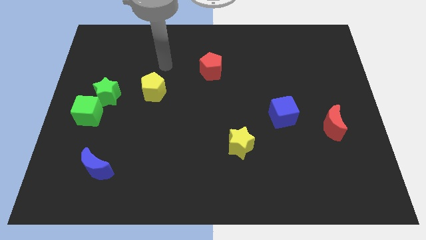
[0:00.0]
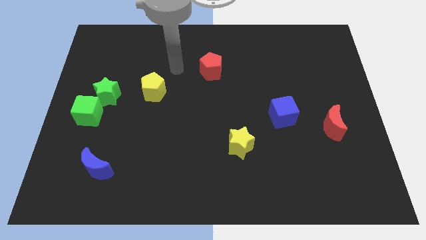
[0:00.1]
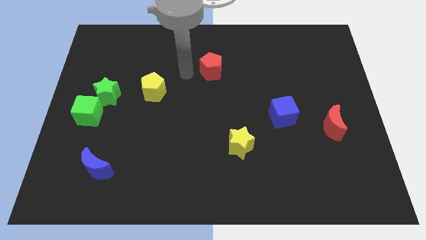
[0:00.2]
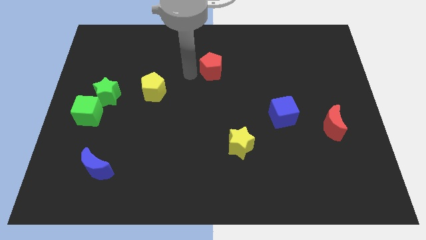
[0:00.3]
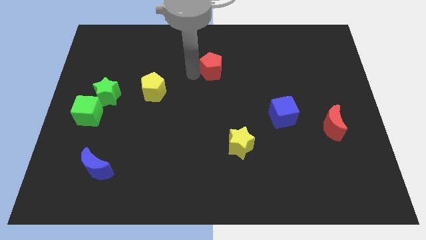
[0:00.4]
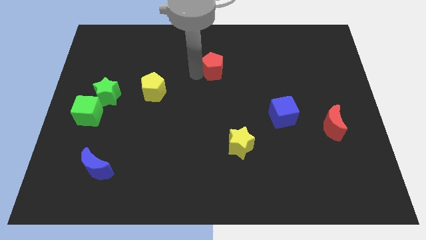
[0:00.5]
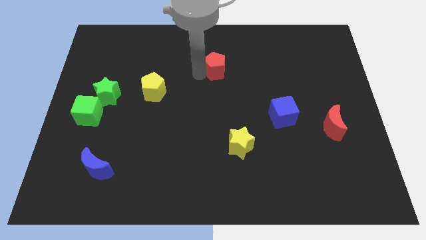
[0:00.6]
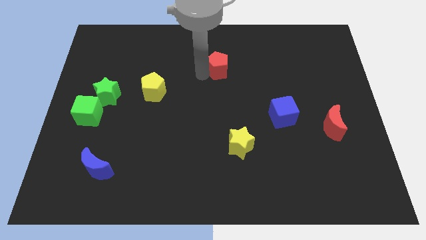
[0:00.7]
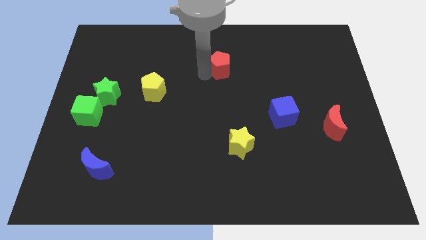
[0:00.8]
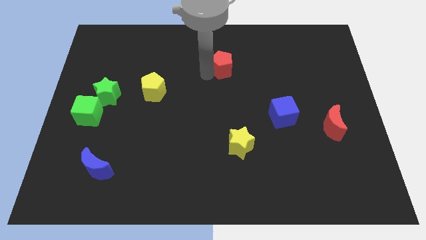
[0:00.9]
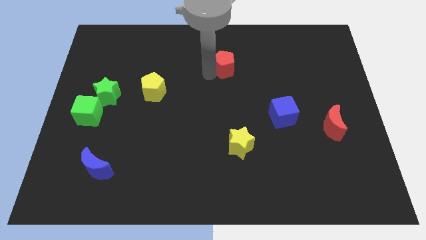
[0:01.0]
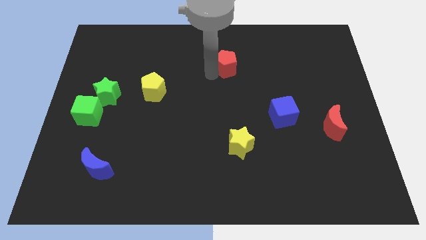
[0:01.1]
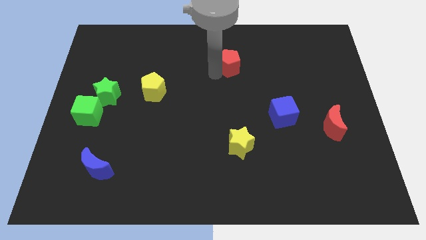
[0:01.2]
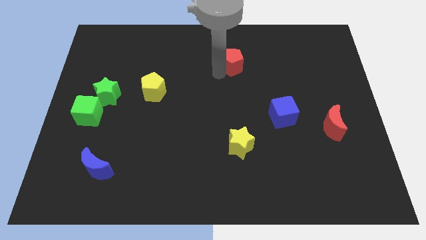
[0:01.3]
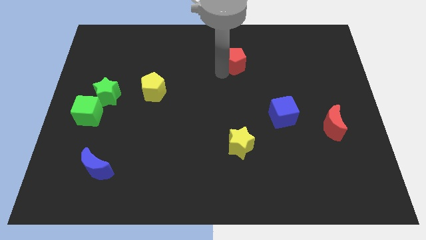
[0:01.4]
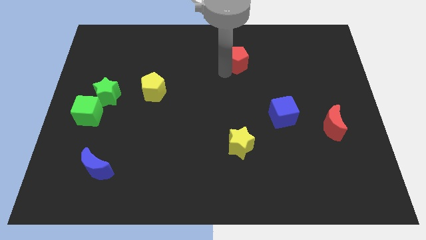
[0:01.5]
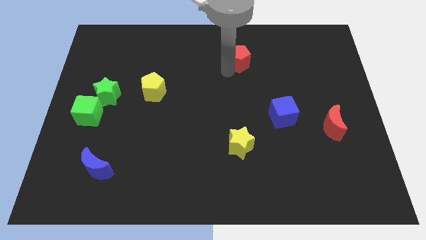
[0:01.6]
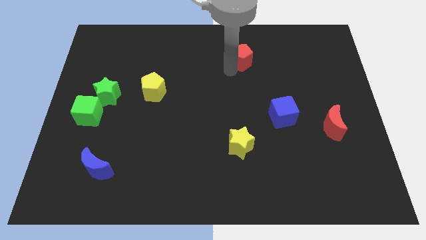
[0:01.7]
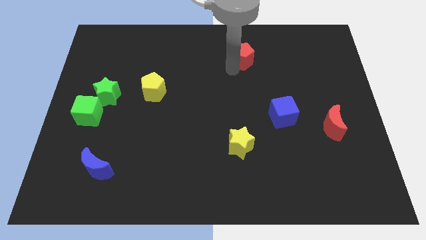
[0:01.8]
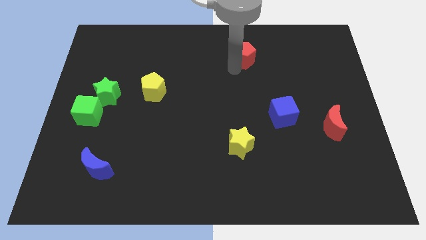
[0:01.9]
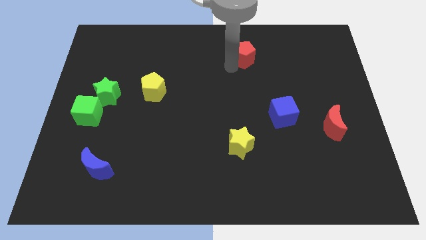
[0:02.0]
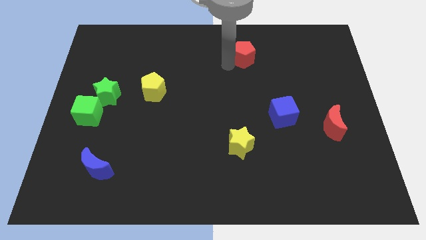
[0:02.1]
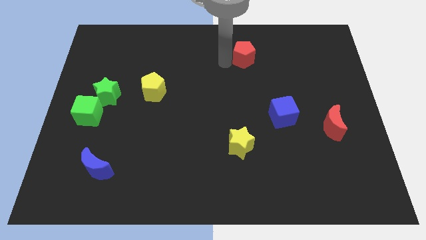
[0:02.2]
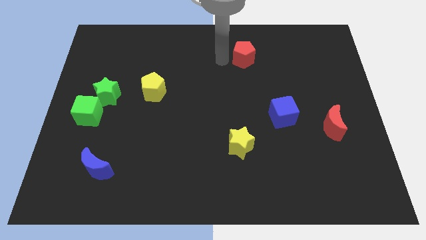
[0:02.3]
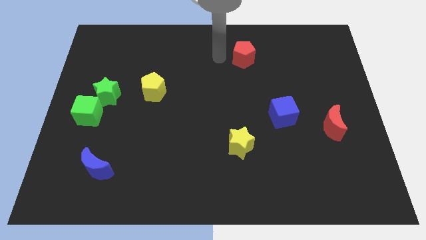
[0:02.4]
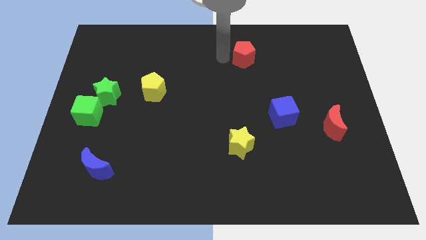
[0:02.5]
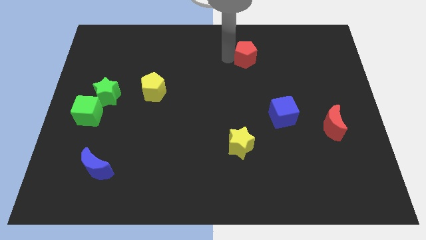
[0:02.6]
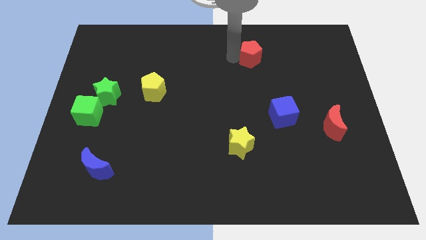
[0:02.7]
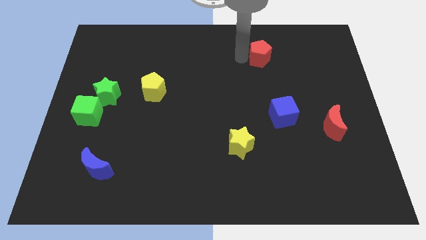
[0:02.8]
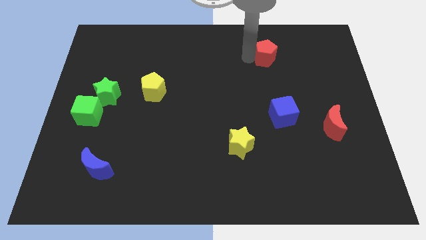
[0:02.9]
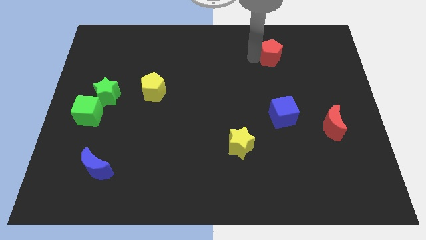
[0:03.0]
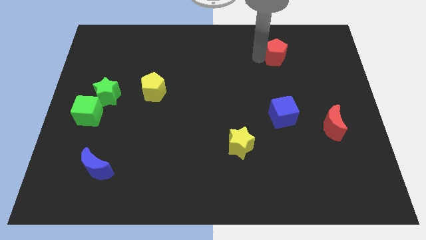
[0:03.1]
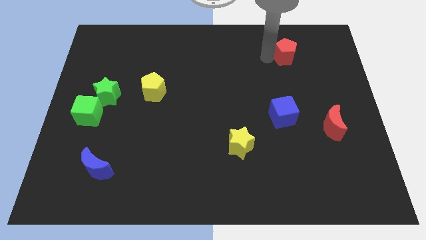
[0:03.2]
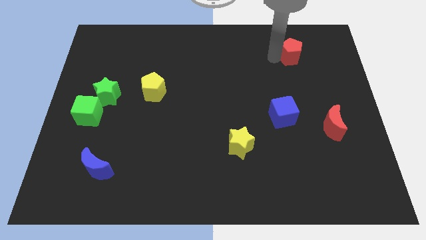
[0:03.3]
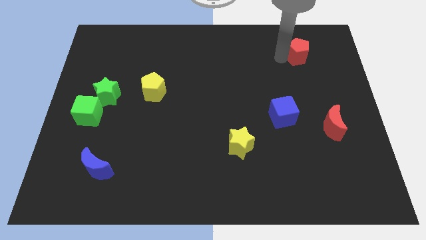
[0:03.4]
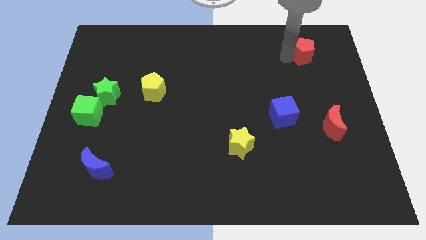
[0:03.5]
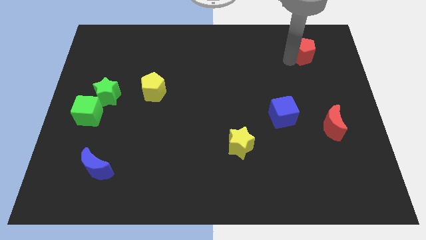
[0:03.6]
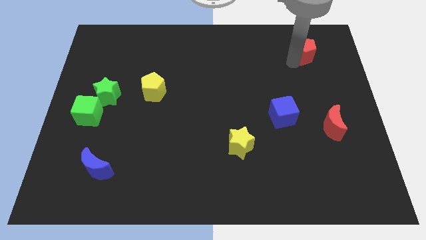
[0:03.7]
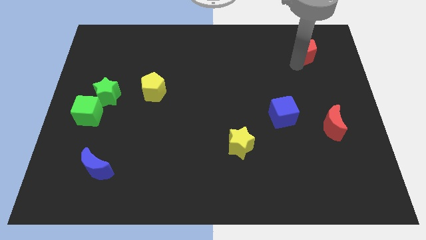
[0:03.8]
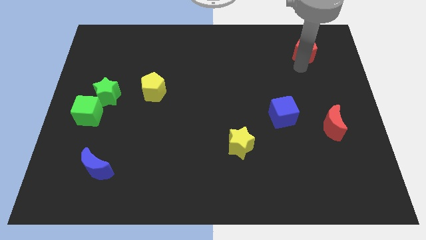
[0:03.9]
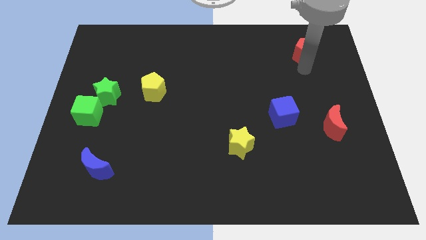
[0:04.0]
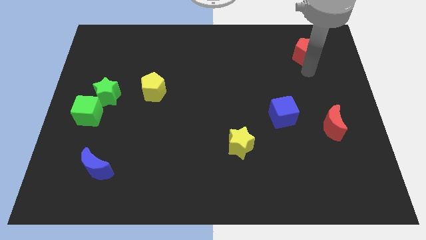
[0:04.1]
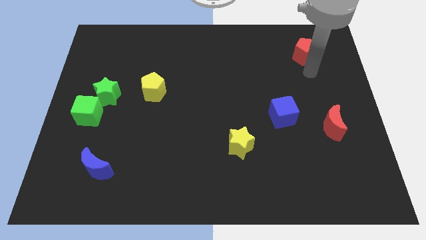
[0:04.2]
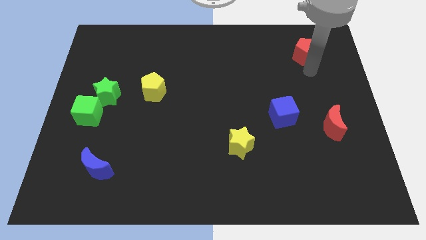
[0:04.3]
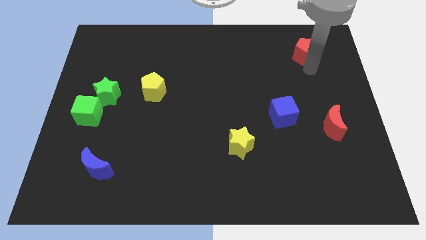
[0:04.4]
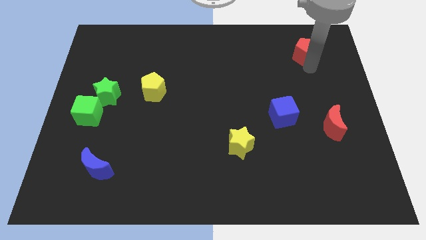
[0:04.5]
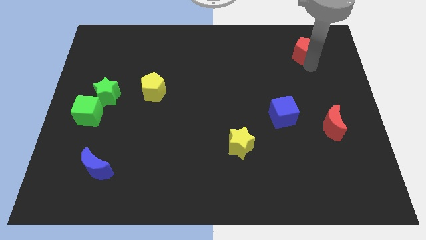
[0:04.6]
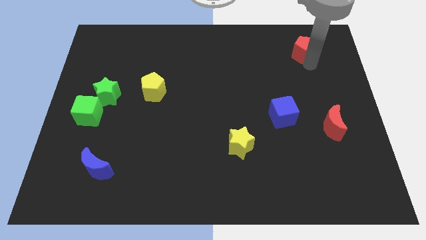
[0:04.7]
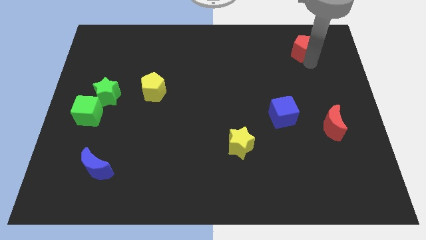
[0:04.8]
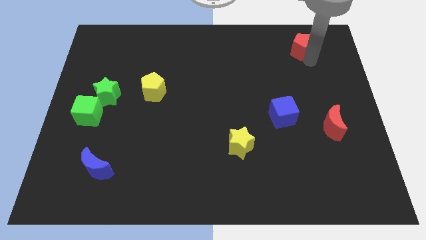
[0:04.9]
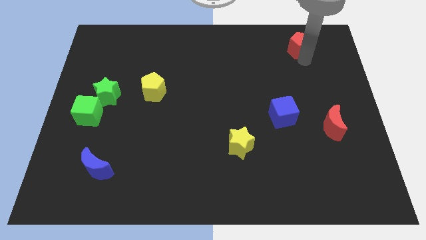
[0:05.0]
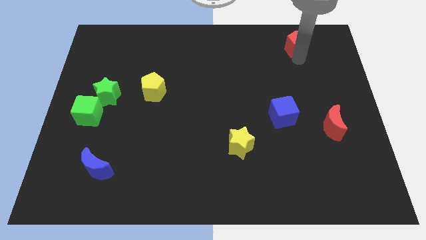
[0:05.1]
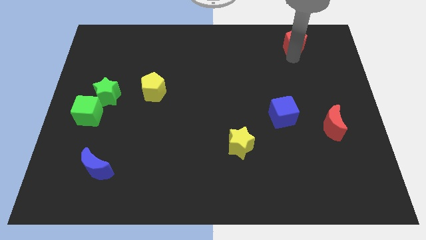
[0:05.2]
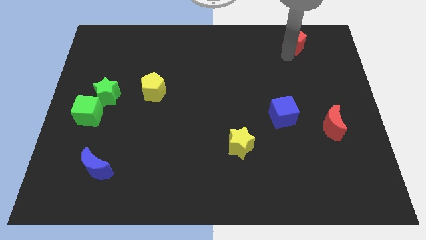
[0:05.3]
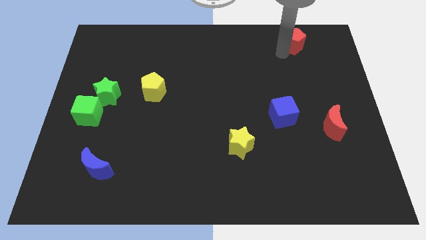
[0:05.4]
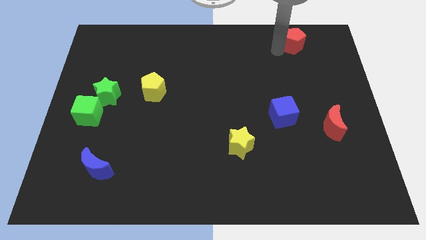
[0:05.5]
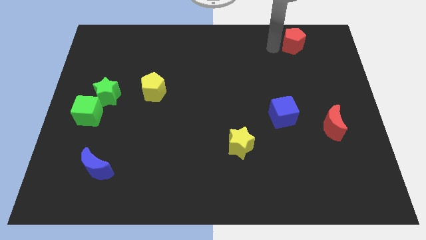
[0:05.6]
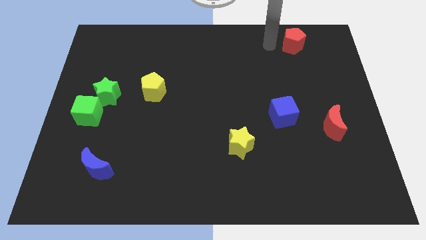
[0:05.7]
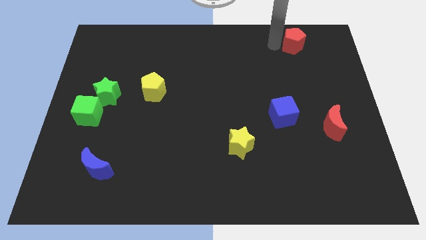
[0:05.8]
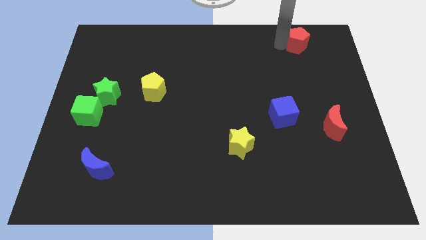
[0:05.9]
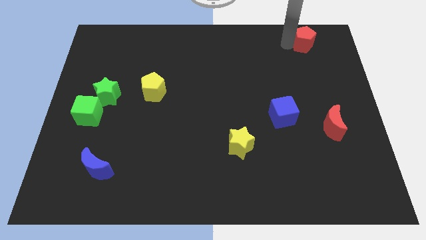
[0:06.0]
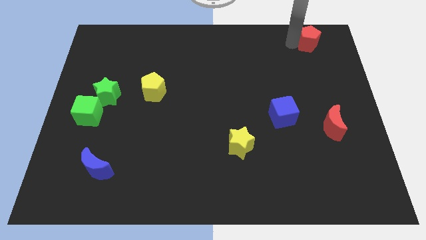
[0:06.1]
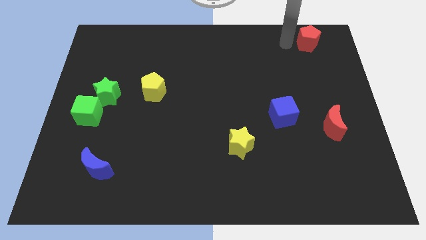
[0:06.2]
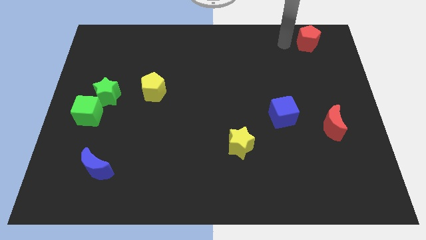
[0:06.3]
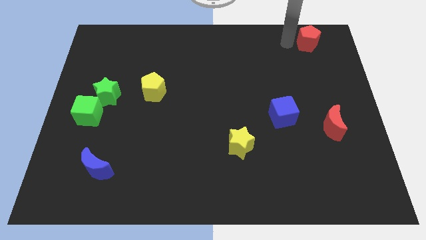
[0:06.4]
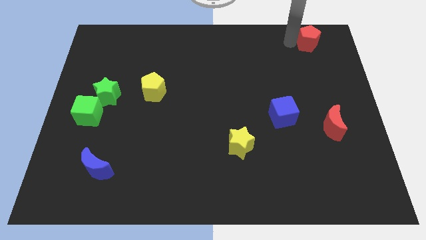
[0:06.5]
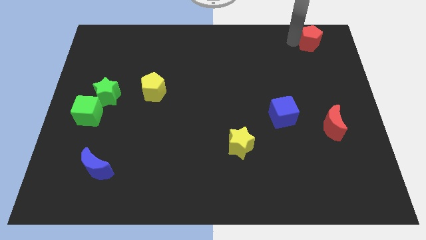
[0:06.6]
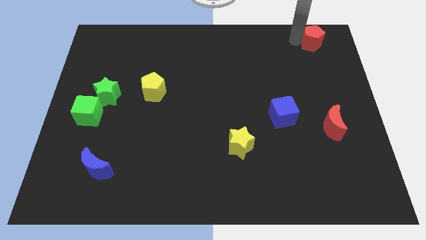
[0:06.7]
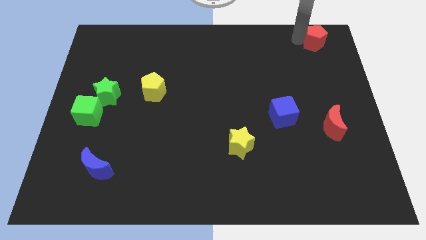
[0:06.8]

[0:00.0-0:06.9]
put the red pentagon to the top right

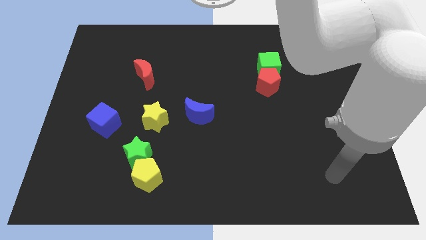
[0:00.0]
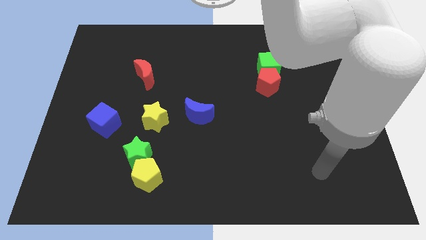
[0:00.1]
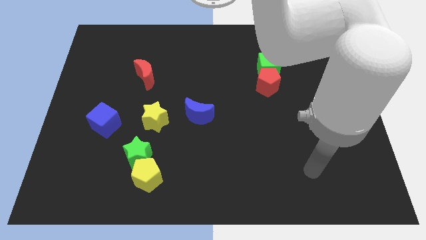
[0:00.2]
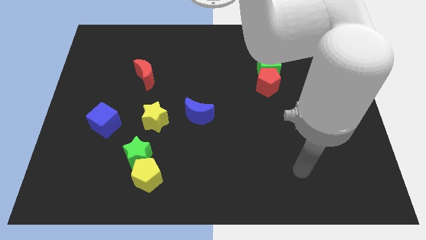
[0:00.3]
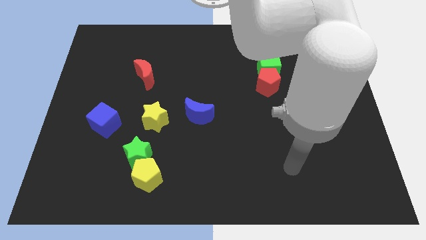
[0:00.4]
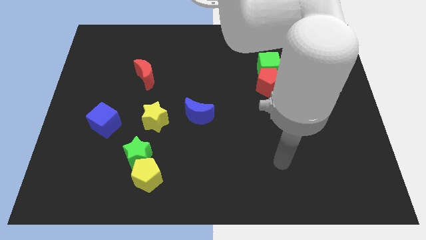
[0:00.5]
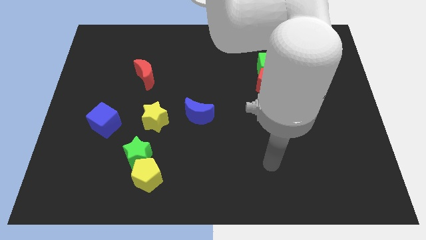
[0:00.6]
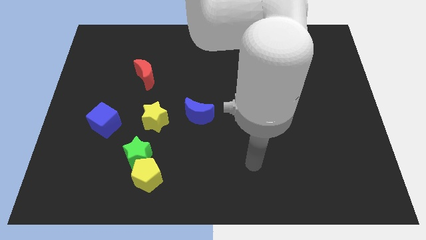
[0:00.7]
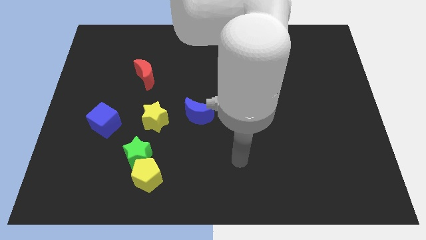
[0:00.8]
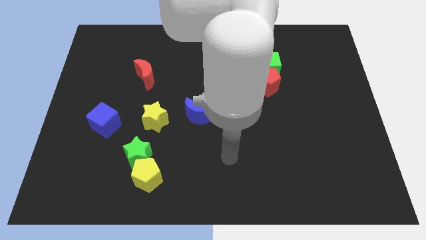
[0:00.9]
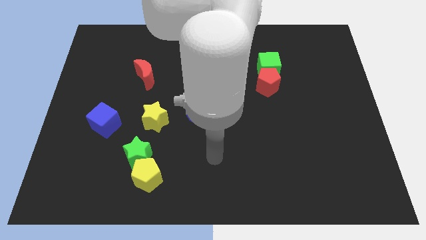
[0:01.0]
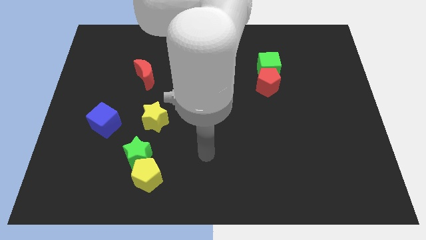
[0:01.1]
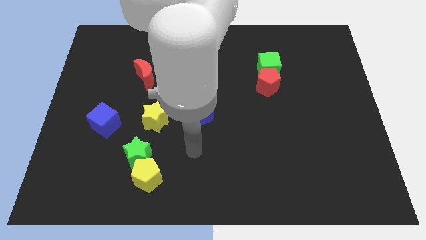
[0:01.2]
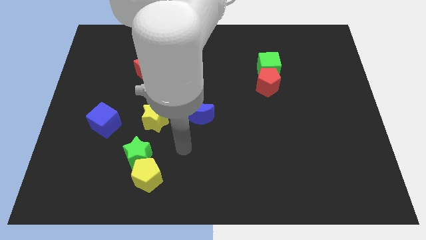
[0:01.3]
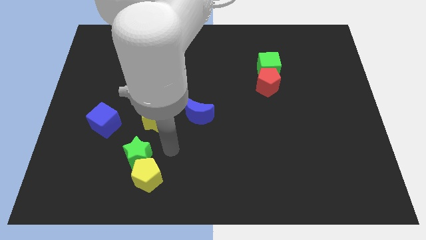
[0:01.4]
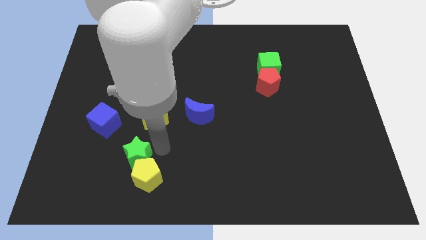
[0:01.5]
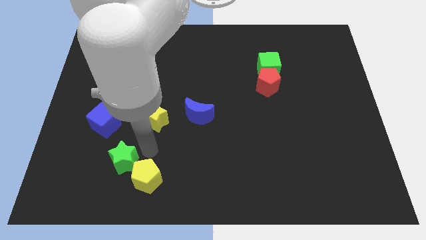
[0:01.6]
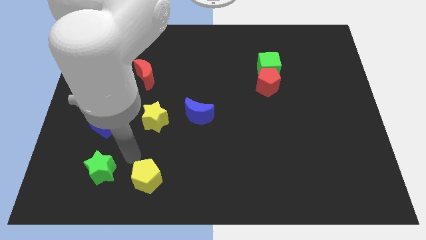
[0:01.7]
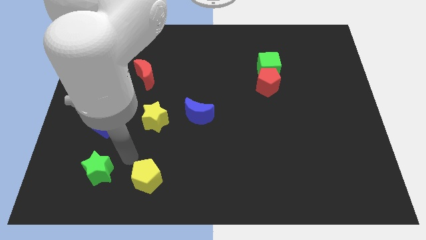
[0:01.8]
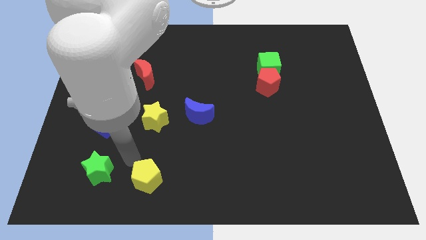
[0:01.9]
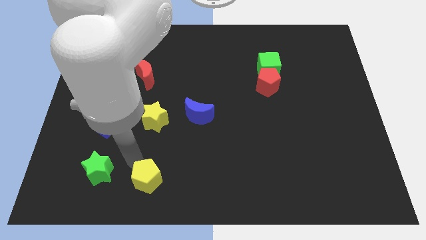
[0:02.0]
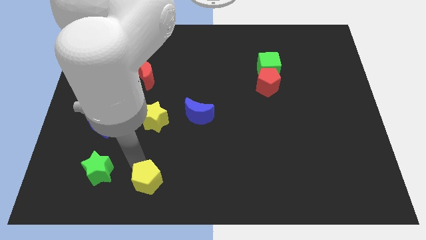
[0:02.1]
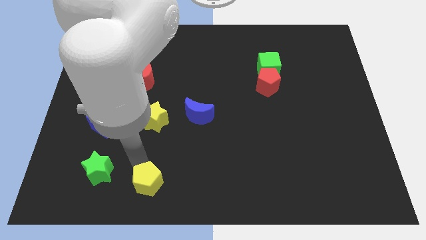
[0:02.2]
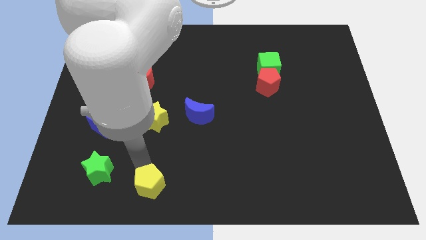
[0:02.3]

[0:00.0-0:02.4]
move the yellow pentagon to the bottom
